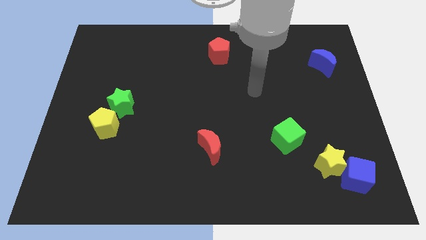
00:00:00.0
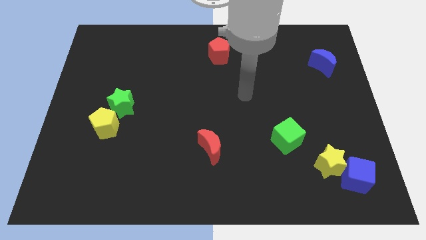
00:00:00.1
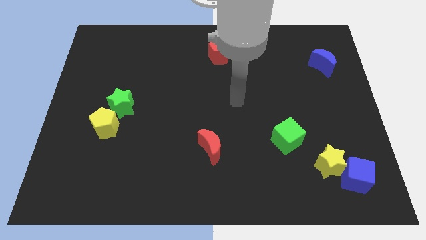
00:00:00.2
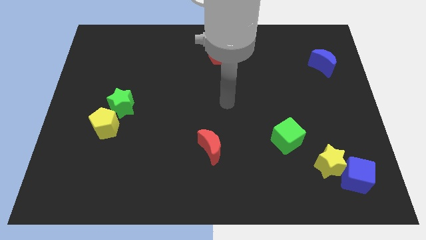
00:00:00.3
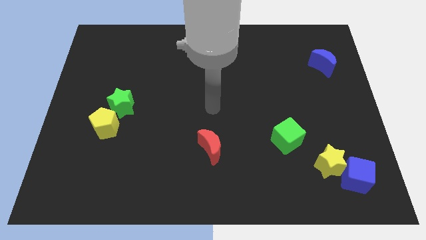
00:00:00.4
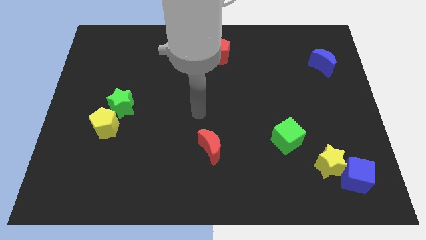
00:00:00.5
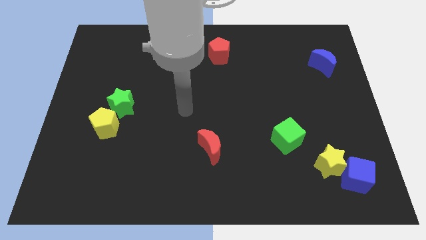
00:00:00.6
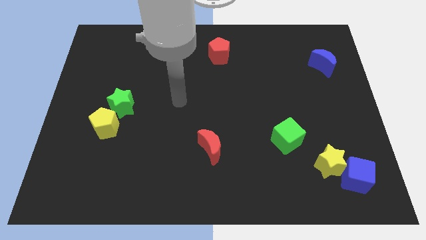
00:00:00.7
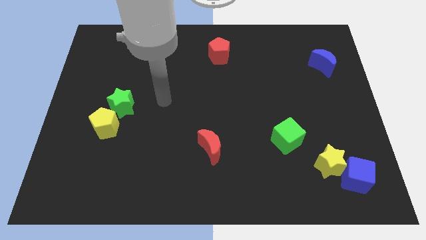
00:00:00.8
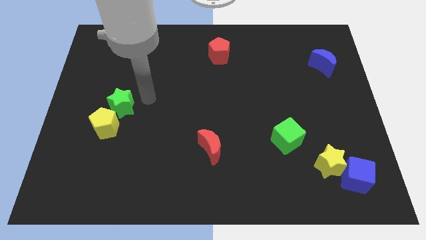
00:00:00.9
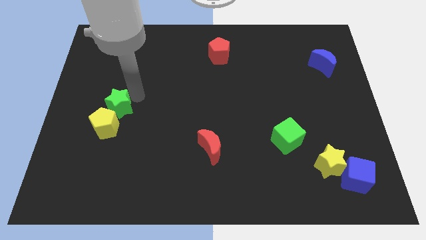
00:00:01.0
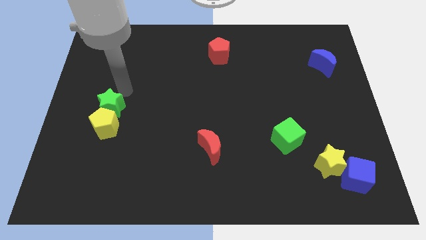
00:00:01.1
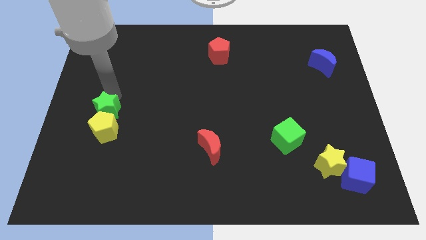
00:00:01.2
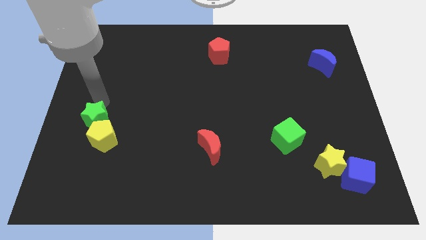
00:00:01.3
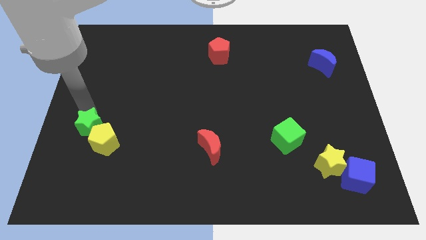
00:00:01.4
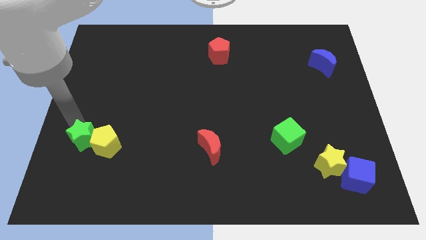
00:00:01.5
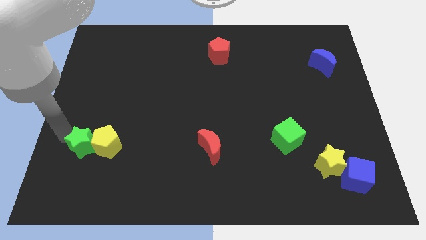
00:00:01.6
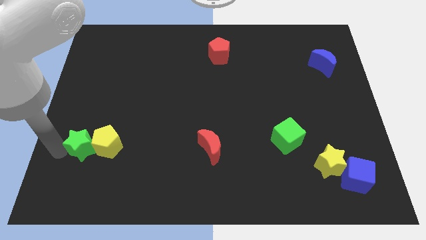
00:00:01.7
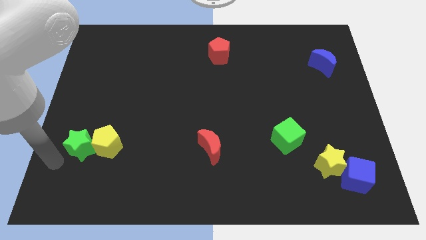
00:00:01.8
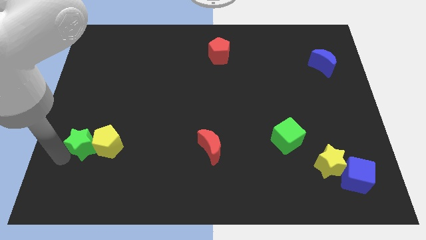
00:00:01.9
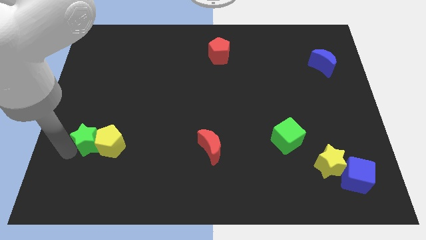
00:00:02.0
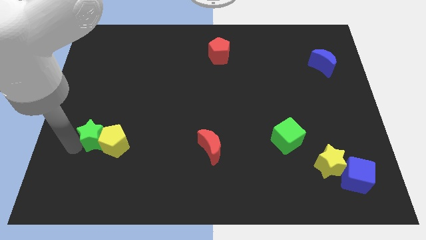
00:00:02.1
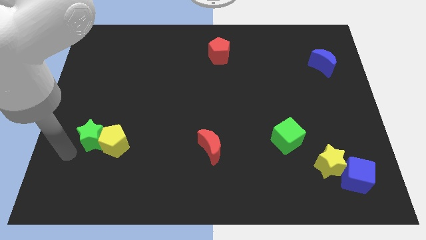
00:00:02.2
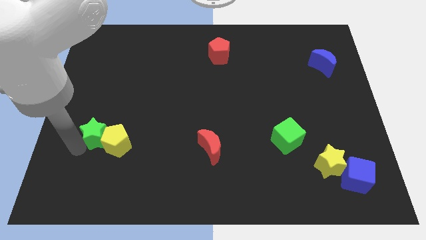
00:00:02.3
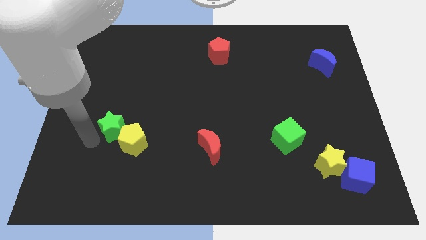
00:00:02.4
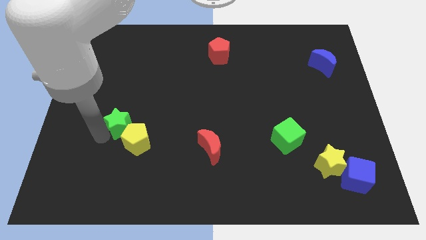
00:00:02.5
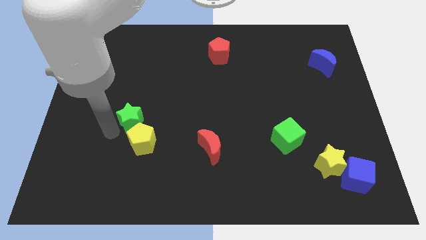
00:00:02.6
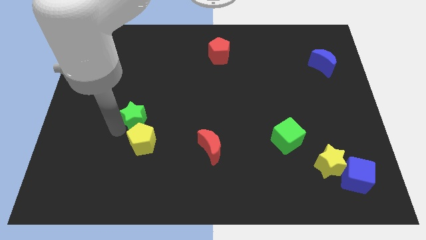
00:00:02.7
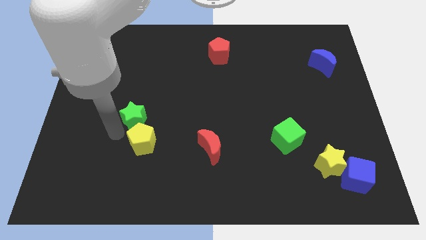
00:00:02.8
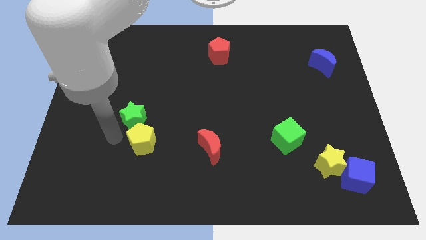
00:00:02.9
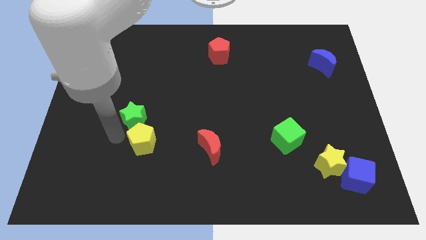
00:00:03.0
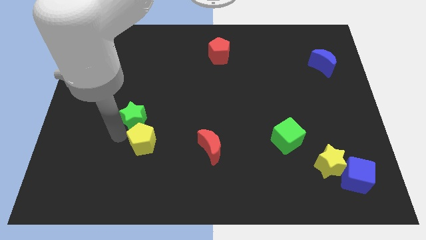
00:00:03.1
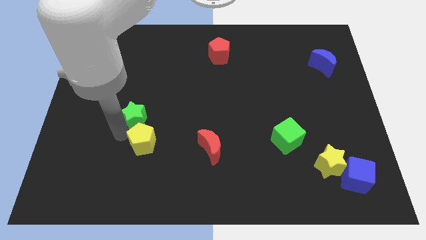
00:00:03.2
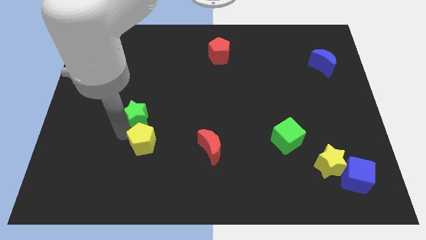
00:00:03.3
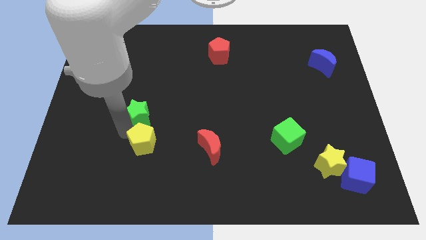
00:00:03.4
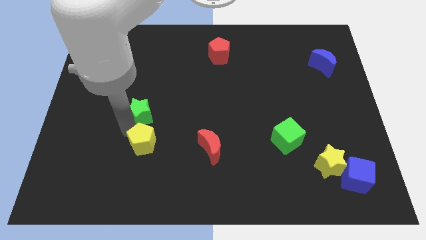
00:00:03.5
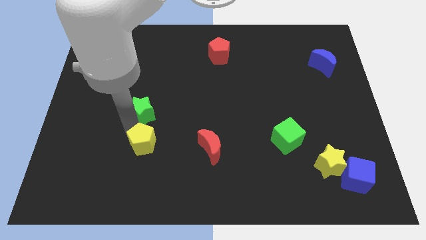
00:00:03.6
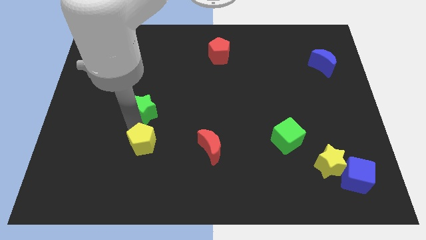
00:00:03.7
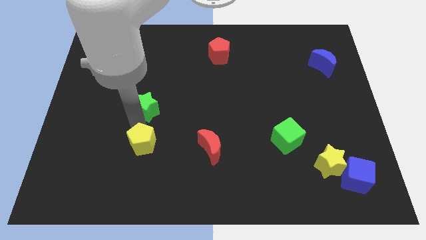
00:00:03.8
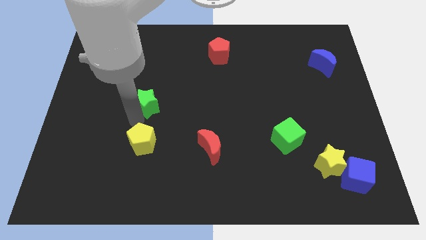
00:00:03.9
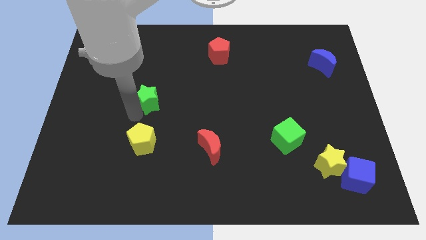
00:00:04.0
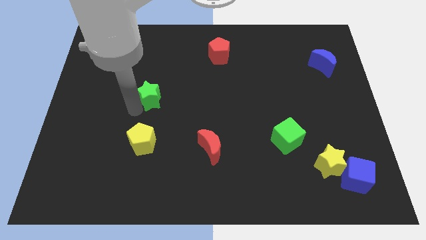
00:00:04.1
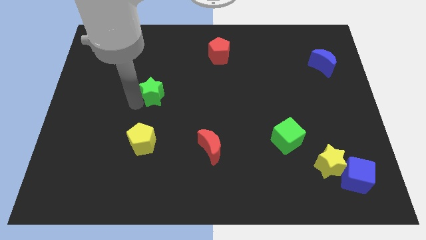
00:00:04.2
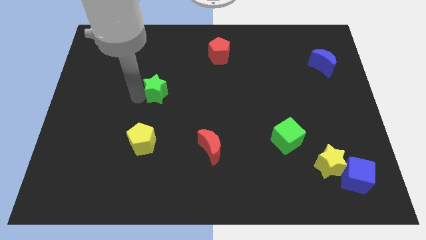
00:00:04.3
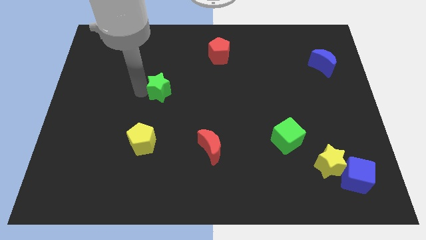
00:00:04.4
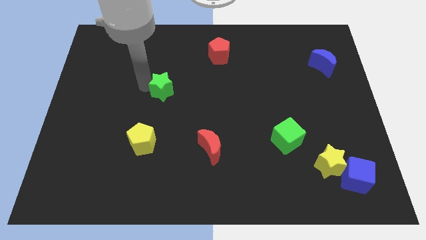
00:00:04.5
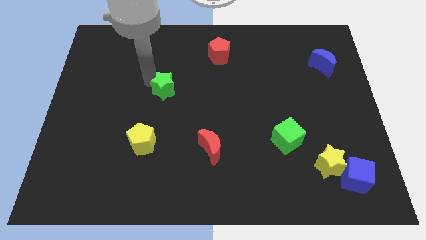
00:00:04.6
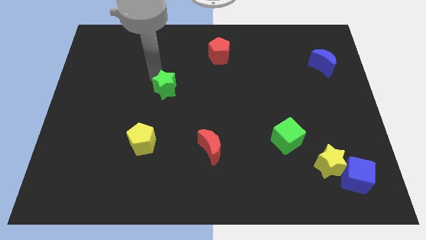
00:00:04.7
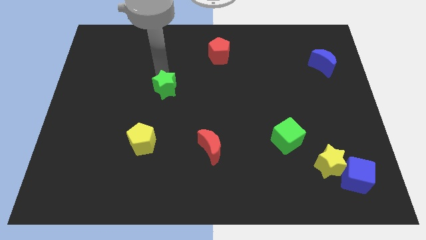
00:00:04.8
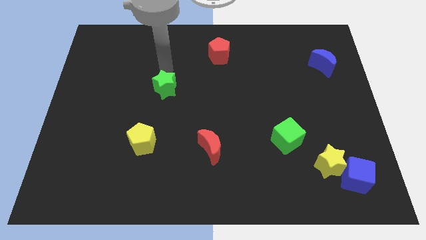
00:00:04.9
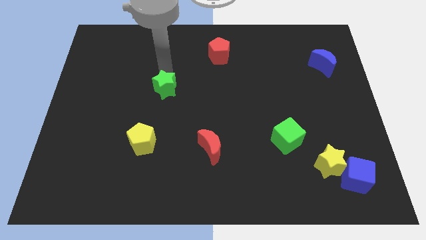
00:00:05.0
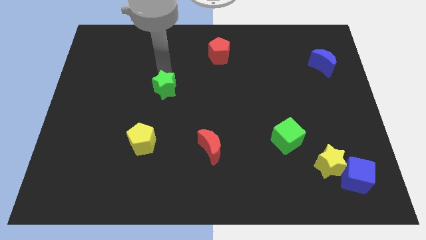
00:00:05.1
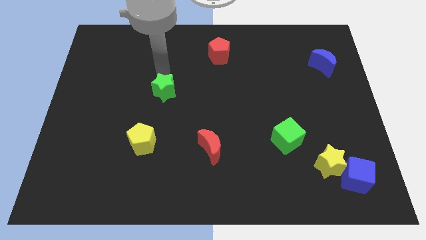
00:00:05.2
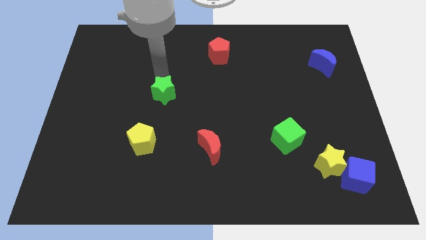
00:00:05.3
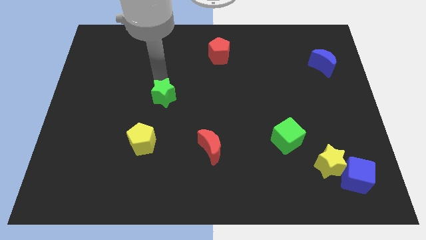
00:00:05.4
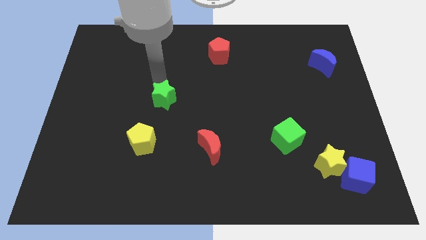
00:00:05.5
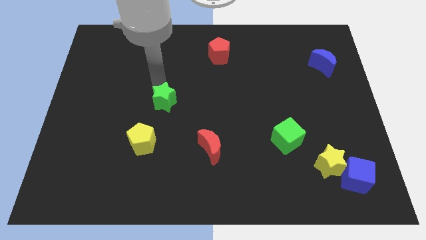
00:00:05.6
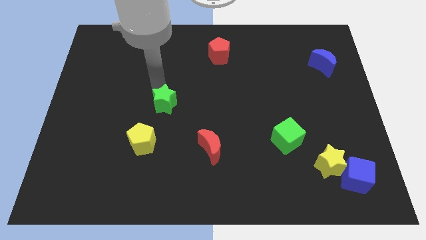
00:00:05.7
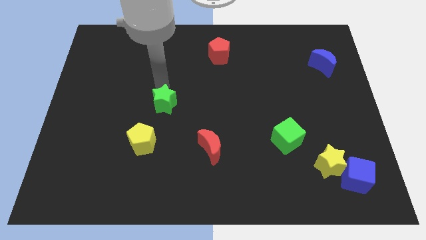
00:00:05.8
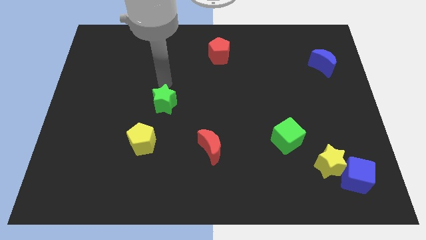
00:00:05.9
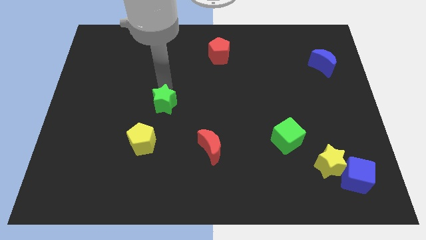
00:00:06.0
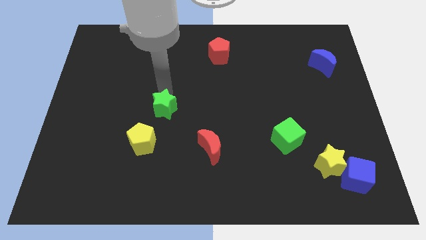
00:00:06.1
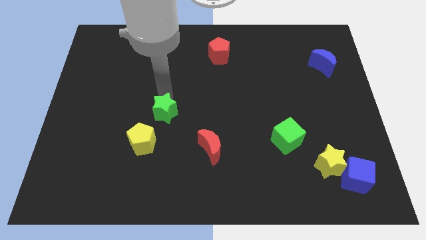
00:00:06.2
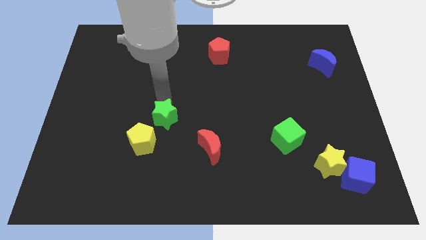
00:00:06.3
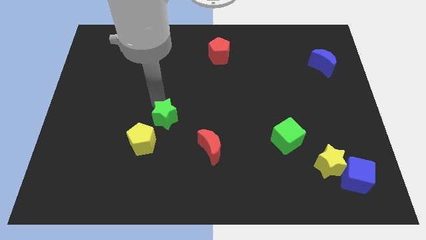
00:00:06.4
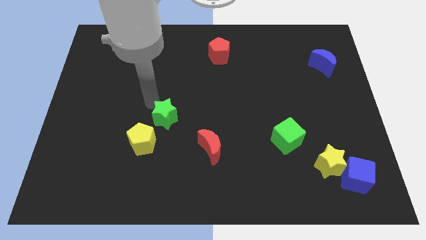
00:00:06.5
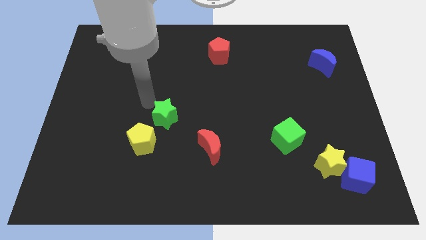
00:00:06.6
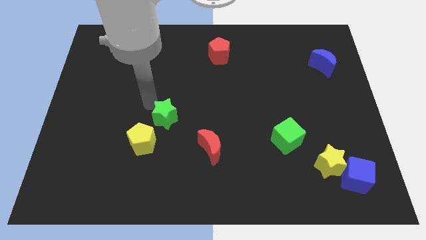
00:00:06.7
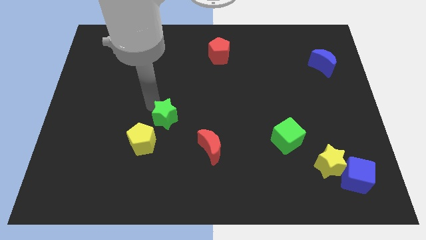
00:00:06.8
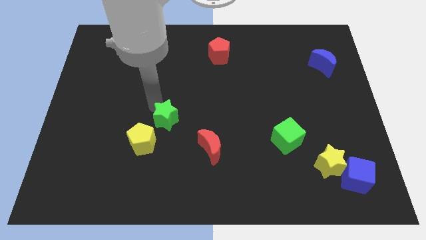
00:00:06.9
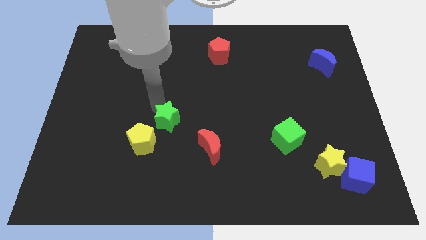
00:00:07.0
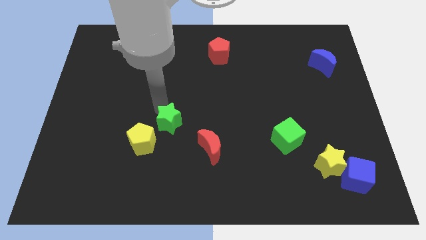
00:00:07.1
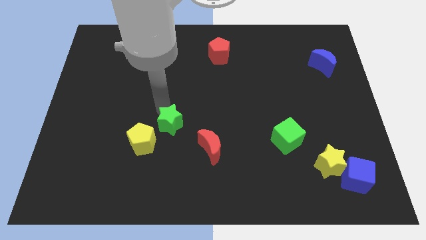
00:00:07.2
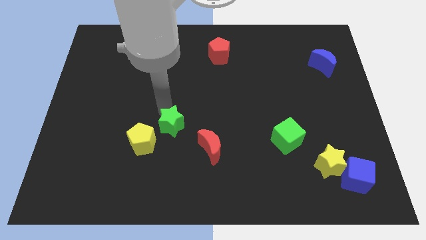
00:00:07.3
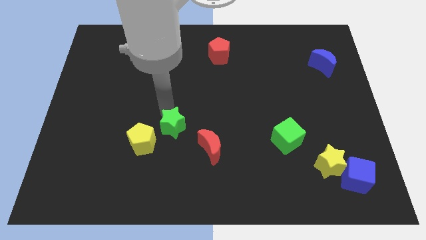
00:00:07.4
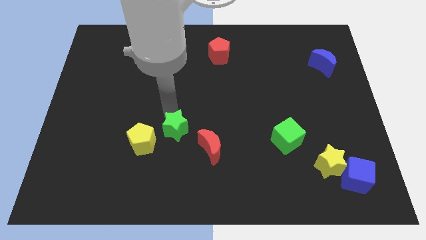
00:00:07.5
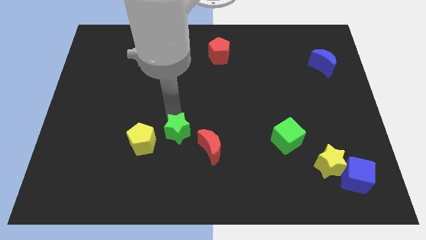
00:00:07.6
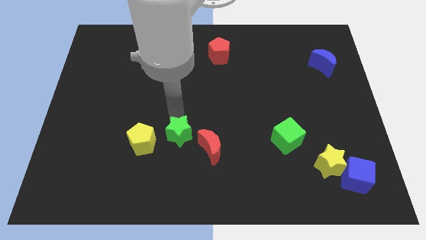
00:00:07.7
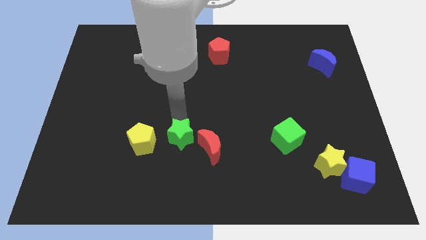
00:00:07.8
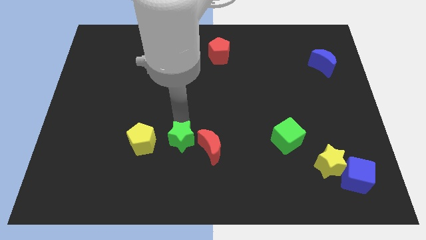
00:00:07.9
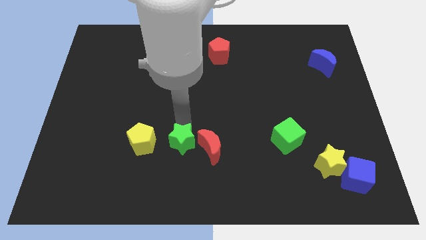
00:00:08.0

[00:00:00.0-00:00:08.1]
move the green star to the red moon
